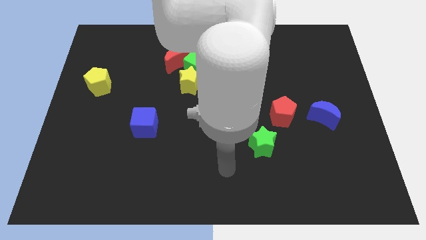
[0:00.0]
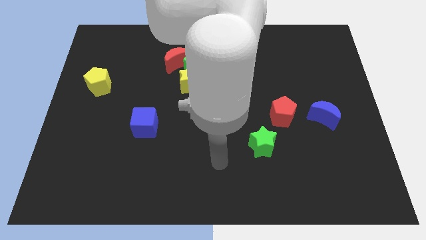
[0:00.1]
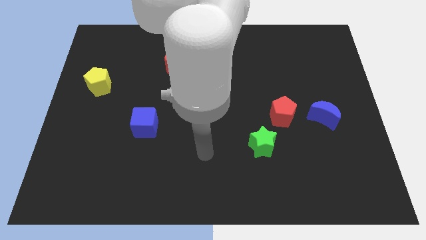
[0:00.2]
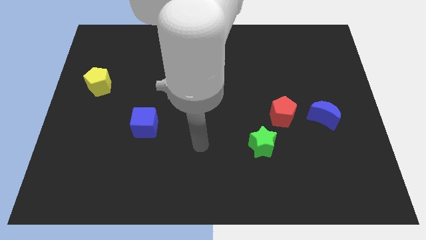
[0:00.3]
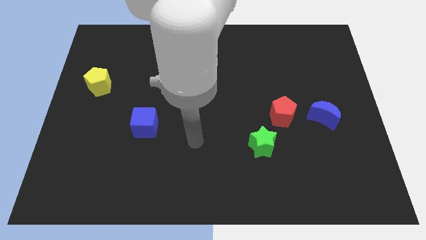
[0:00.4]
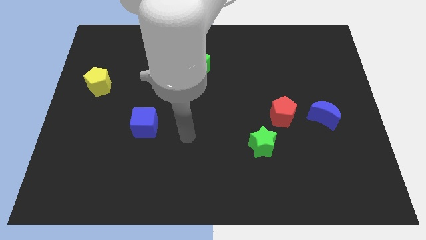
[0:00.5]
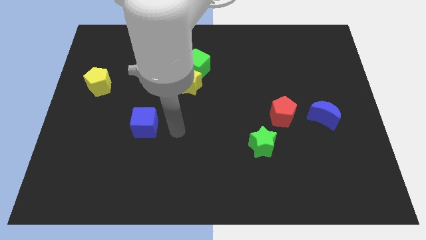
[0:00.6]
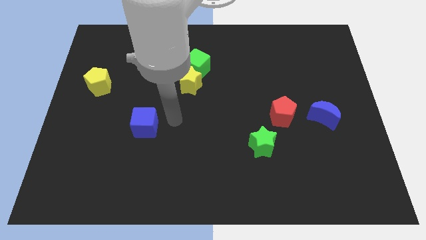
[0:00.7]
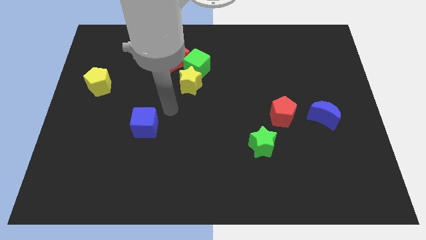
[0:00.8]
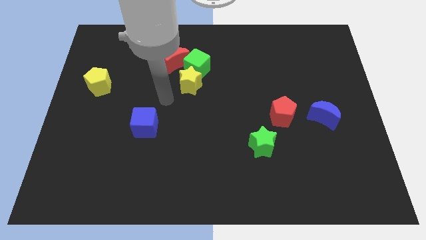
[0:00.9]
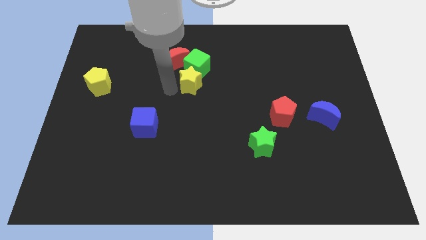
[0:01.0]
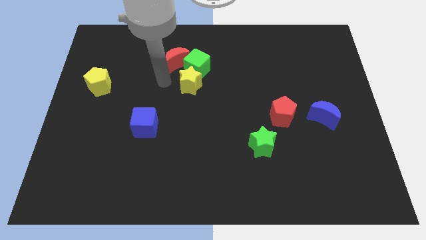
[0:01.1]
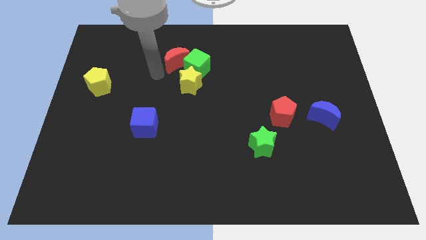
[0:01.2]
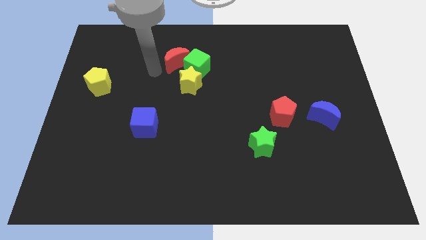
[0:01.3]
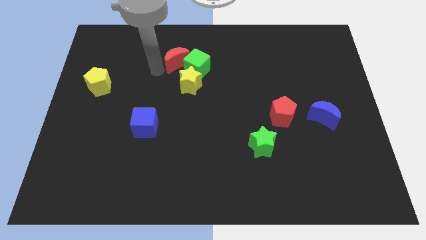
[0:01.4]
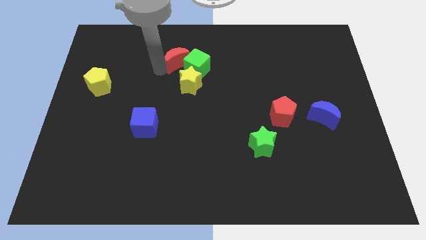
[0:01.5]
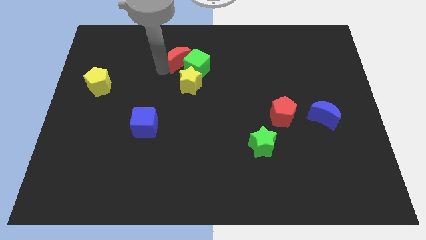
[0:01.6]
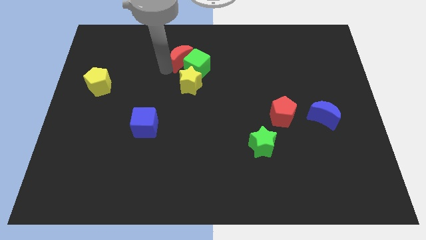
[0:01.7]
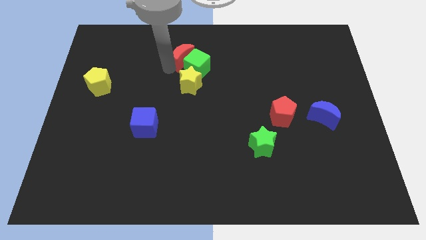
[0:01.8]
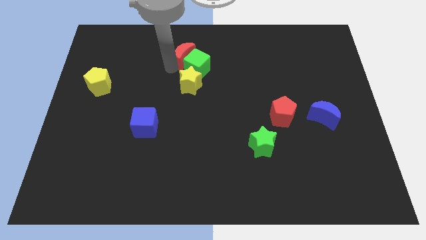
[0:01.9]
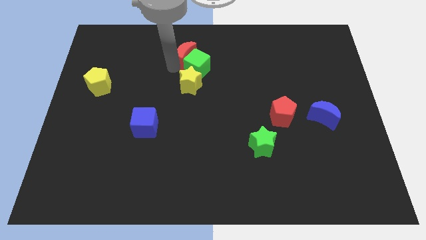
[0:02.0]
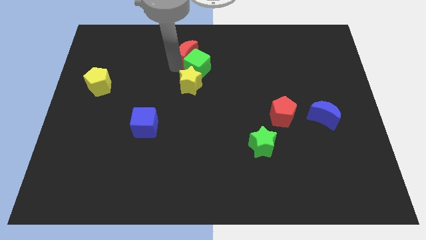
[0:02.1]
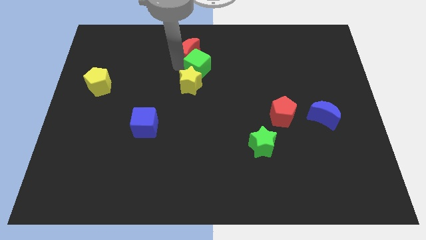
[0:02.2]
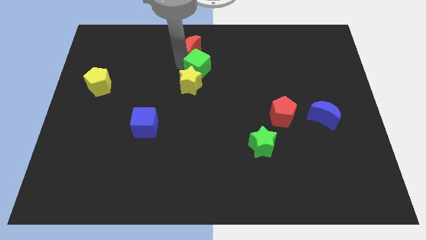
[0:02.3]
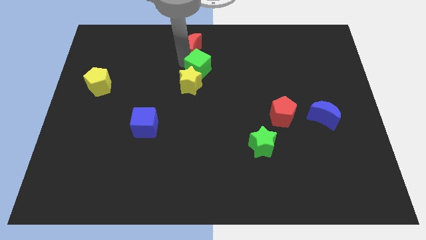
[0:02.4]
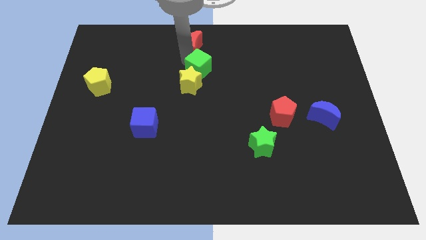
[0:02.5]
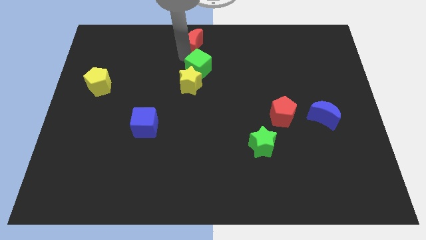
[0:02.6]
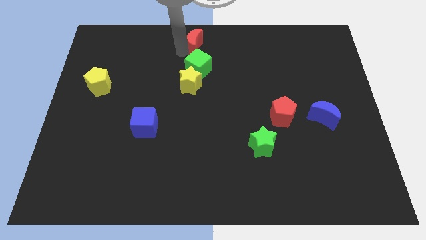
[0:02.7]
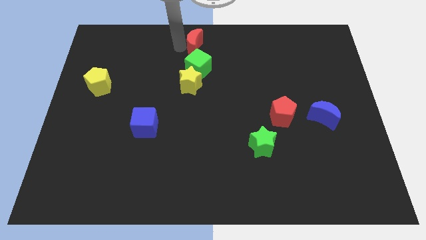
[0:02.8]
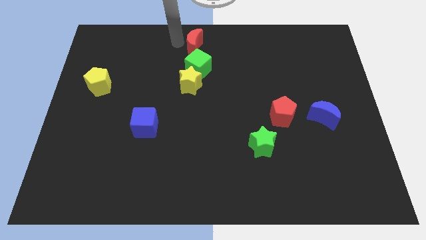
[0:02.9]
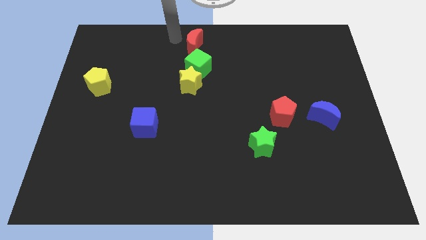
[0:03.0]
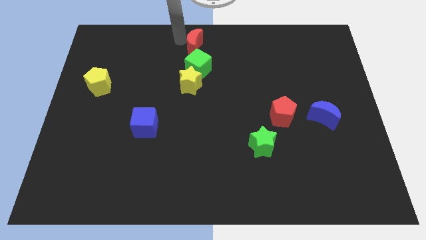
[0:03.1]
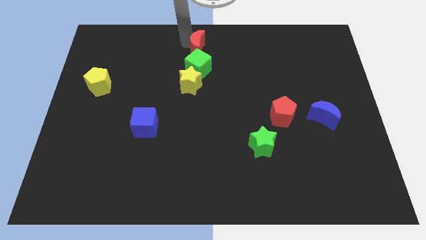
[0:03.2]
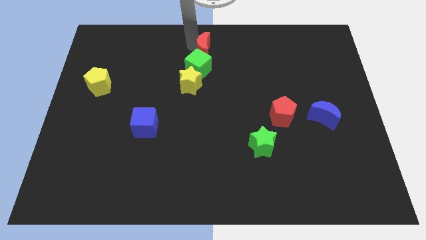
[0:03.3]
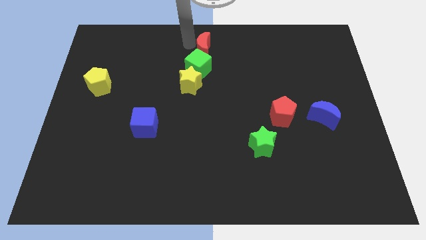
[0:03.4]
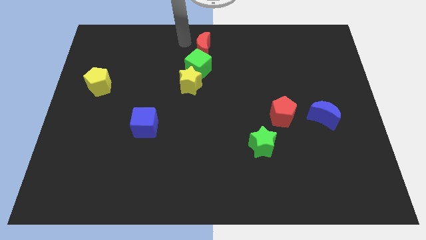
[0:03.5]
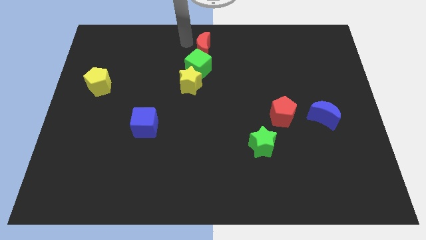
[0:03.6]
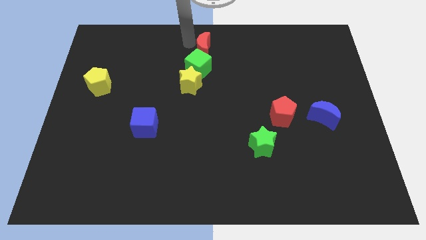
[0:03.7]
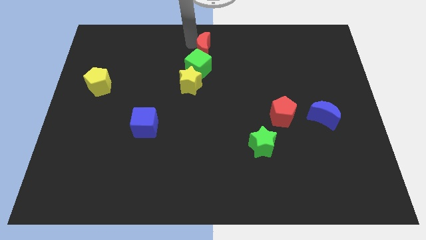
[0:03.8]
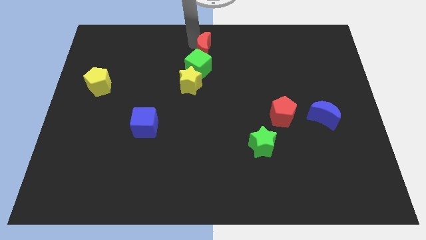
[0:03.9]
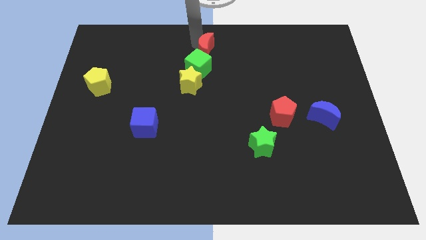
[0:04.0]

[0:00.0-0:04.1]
slide the red moon to the right a little bit

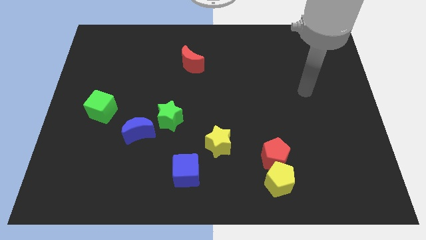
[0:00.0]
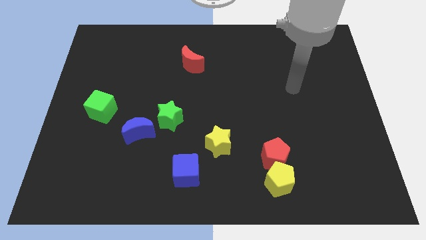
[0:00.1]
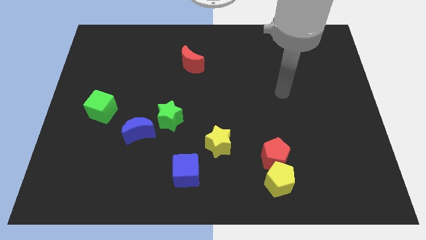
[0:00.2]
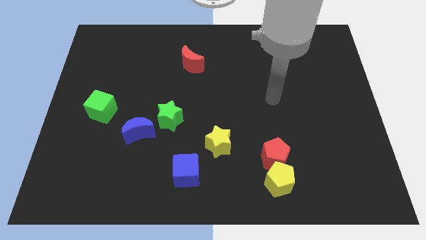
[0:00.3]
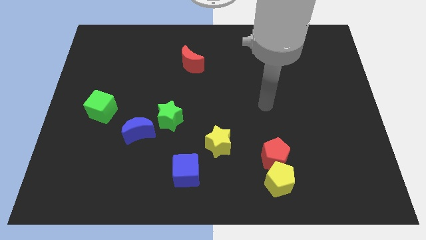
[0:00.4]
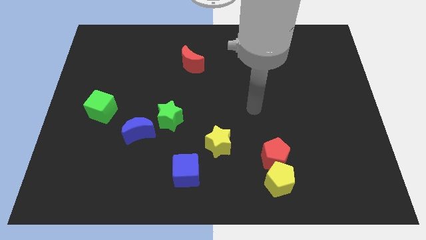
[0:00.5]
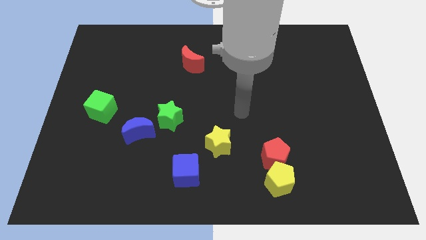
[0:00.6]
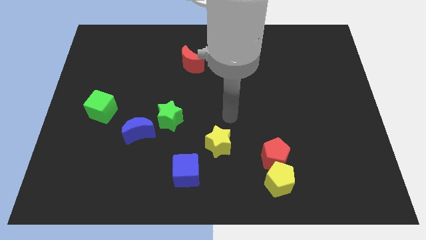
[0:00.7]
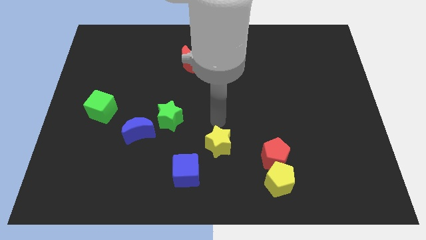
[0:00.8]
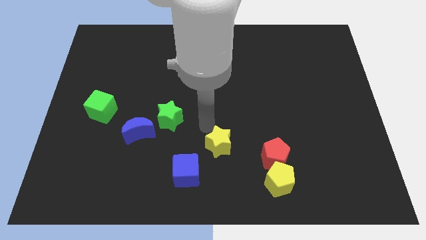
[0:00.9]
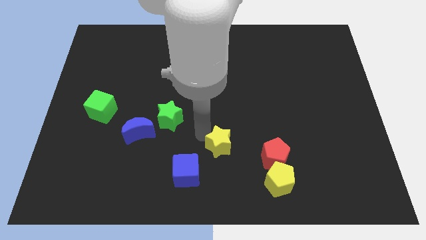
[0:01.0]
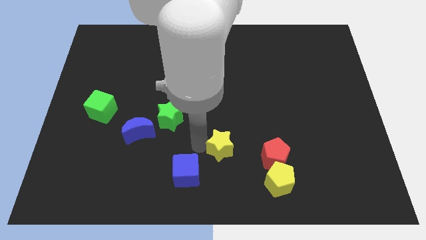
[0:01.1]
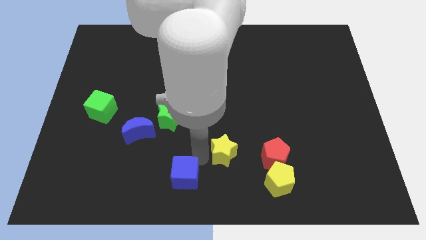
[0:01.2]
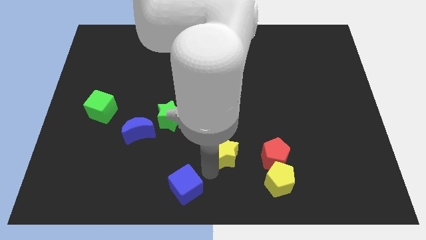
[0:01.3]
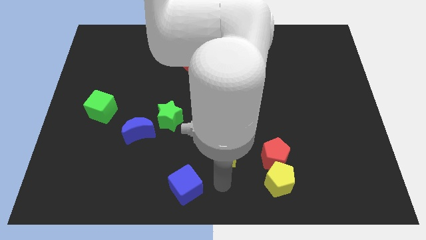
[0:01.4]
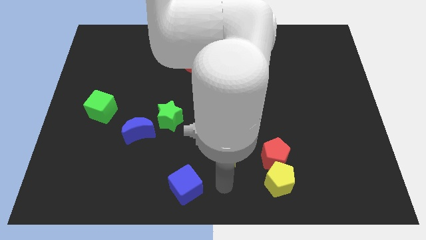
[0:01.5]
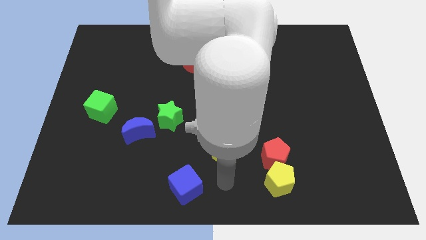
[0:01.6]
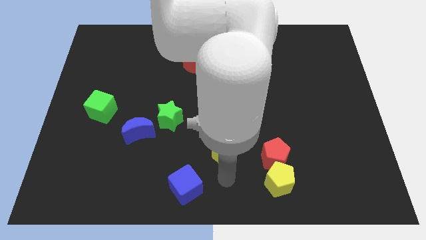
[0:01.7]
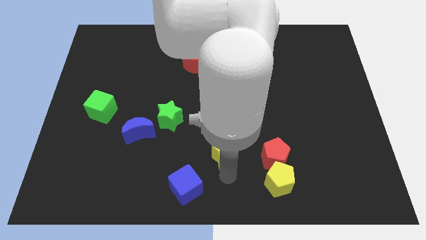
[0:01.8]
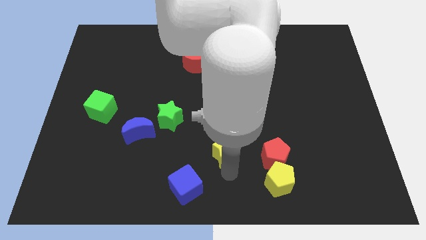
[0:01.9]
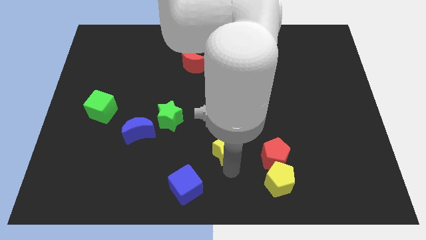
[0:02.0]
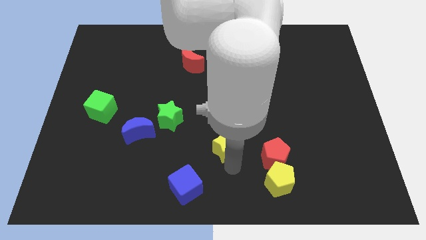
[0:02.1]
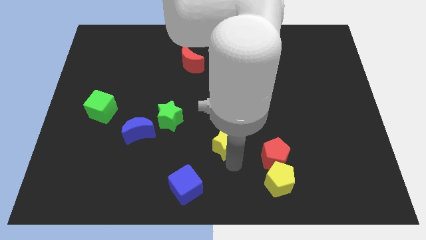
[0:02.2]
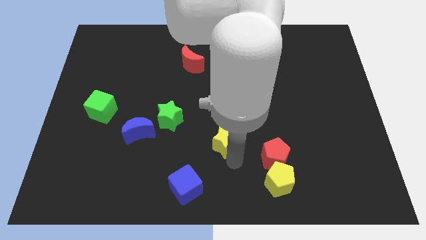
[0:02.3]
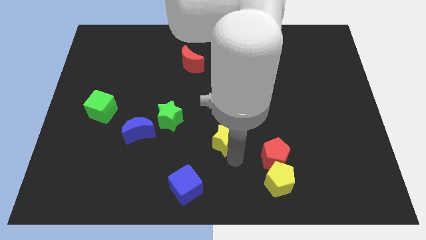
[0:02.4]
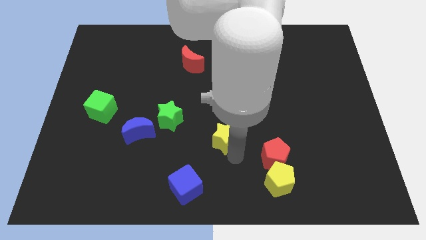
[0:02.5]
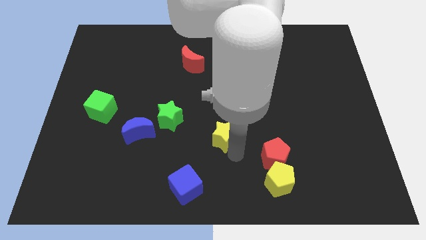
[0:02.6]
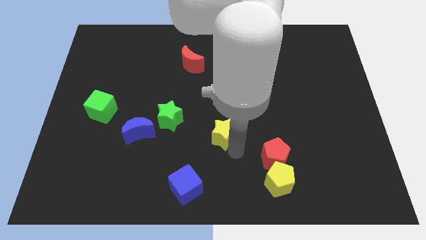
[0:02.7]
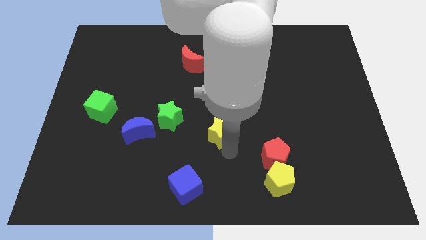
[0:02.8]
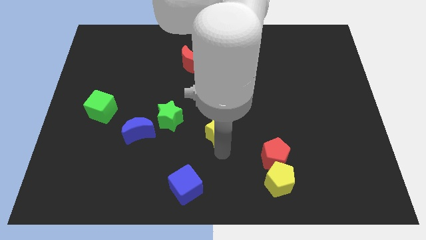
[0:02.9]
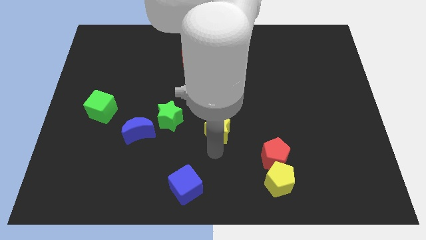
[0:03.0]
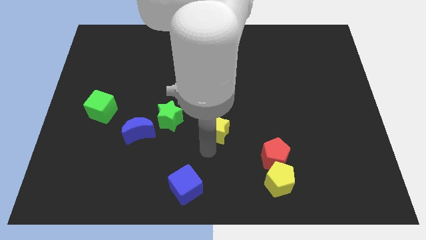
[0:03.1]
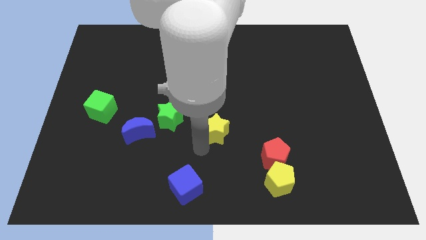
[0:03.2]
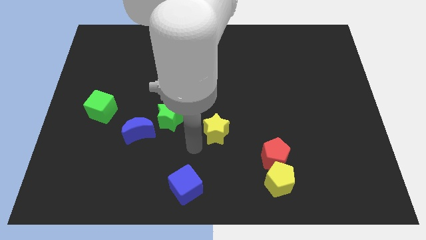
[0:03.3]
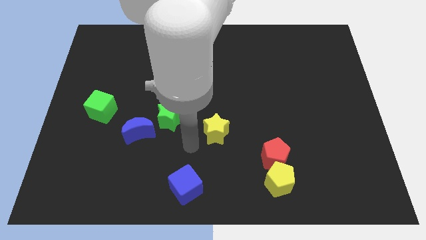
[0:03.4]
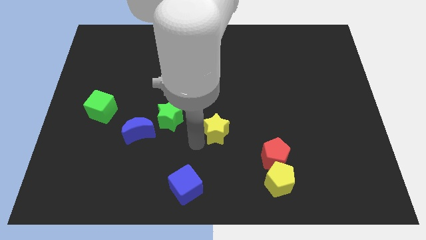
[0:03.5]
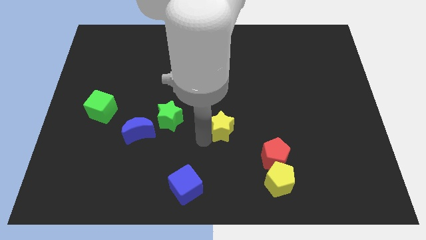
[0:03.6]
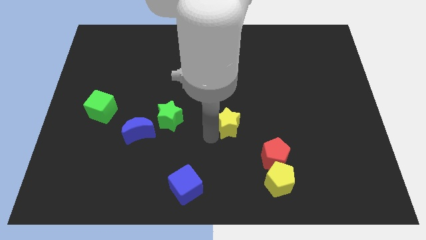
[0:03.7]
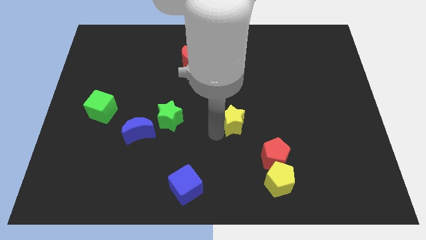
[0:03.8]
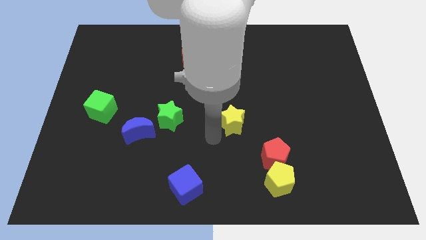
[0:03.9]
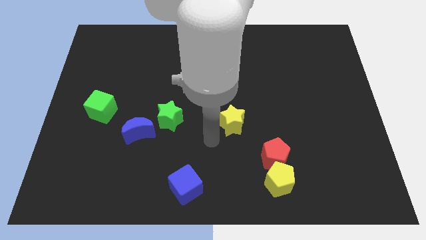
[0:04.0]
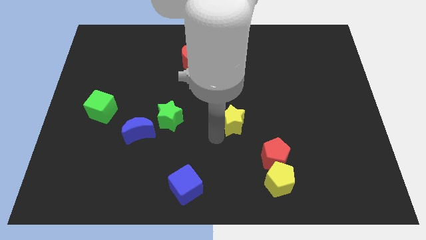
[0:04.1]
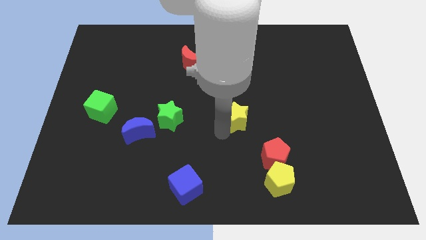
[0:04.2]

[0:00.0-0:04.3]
slightly move the yellow star up and to the right
